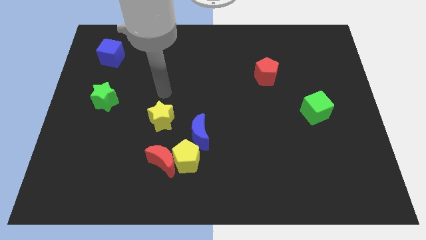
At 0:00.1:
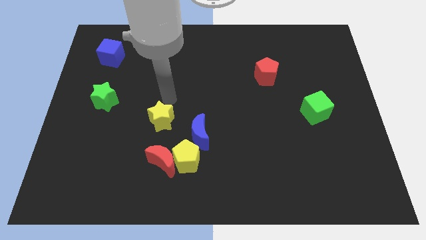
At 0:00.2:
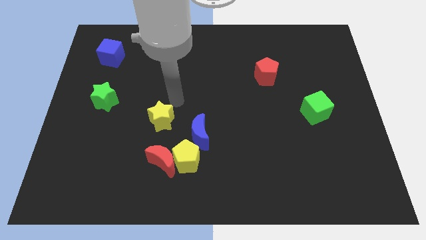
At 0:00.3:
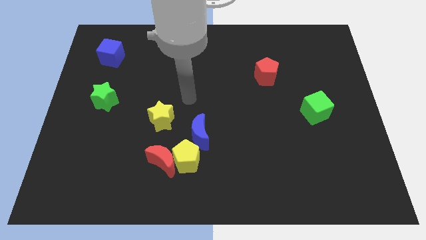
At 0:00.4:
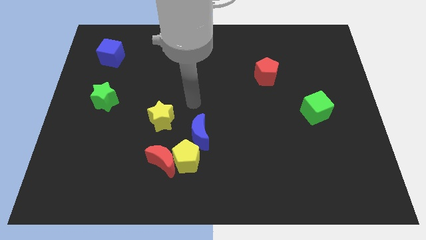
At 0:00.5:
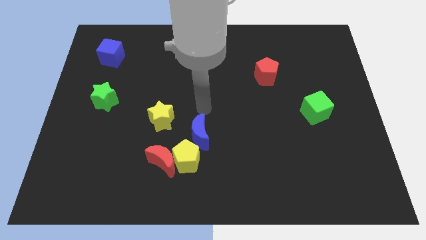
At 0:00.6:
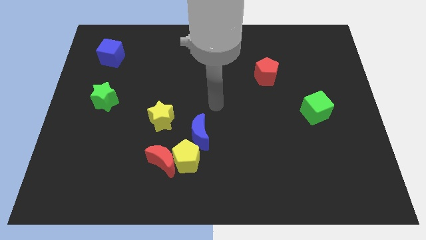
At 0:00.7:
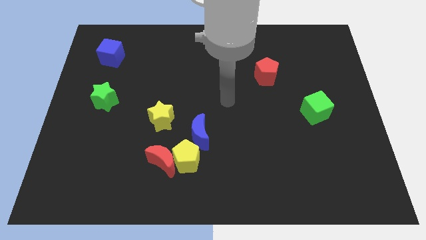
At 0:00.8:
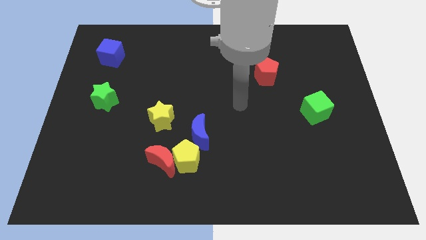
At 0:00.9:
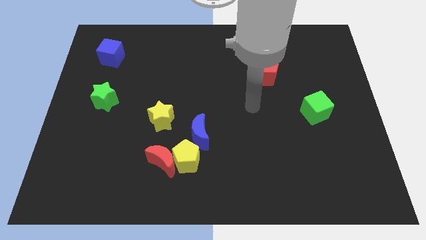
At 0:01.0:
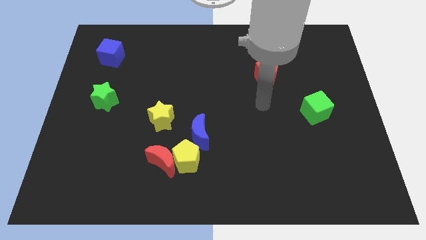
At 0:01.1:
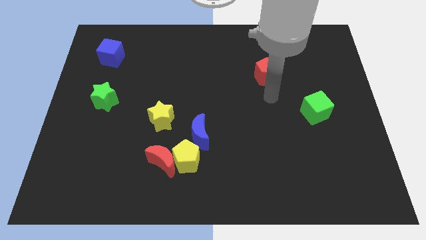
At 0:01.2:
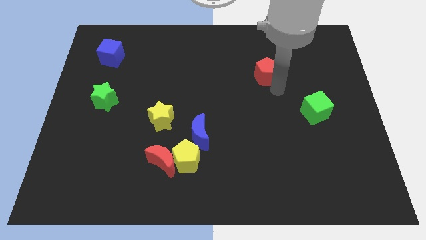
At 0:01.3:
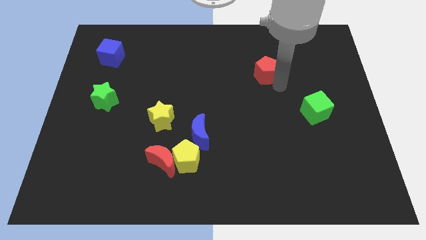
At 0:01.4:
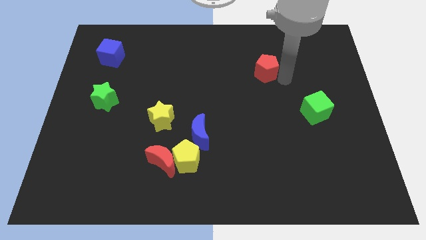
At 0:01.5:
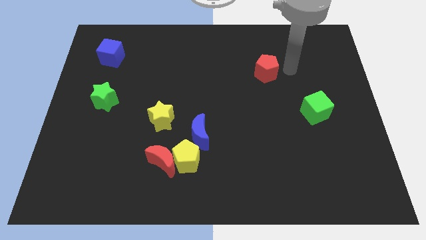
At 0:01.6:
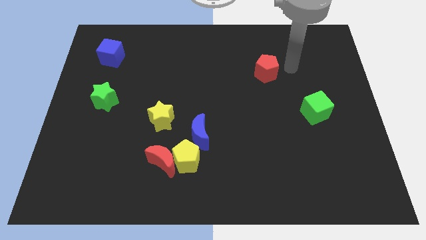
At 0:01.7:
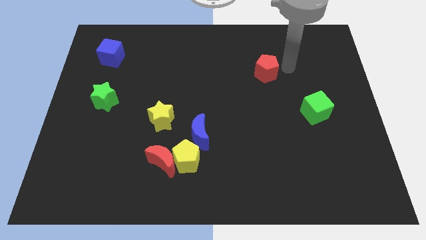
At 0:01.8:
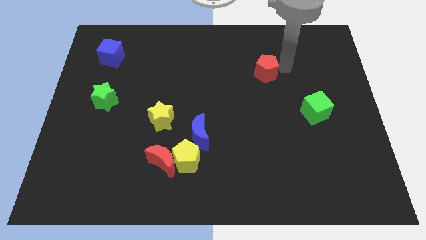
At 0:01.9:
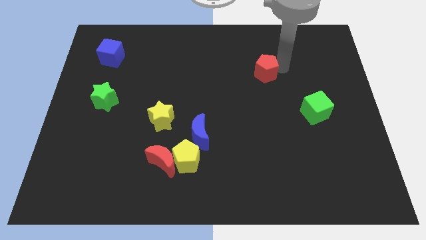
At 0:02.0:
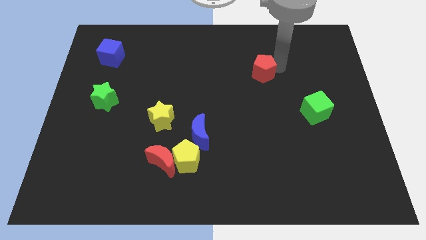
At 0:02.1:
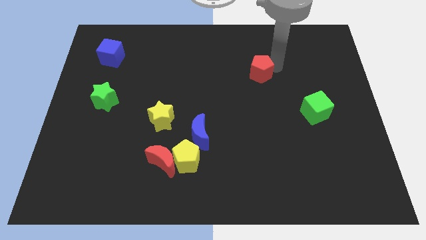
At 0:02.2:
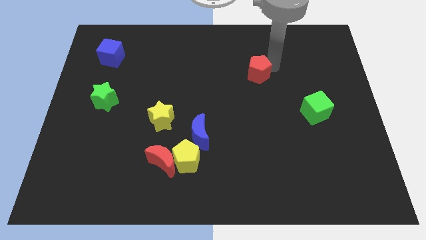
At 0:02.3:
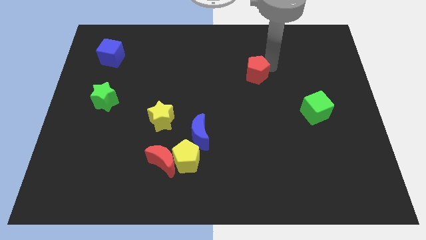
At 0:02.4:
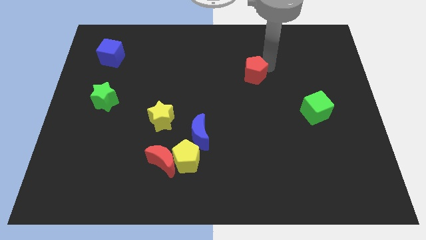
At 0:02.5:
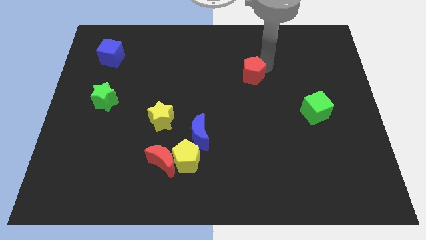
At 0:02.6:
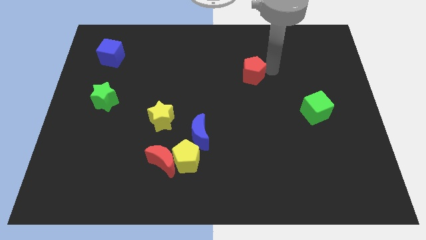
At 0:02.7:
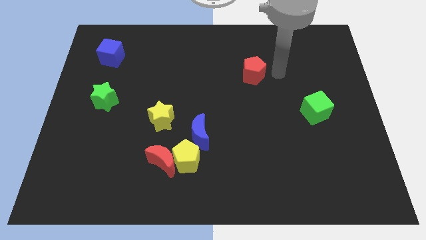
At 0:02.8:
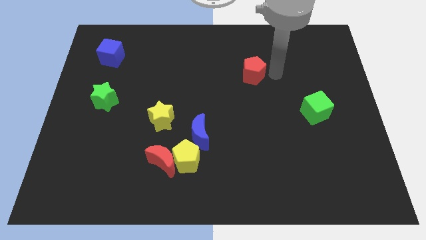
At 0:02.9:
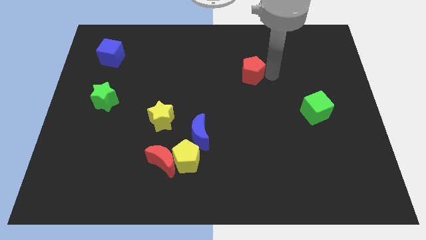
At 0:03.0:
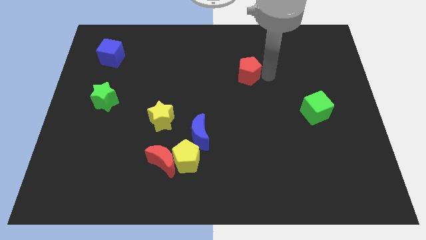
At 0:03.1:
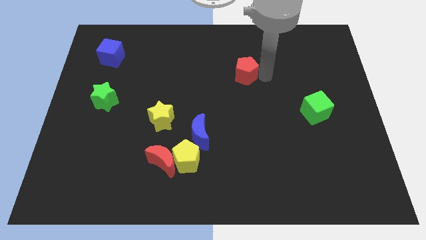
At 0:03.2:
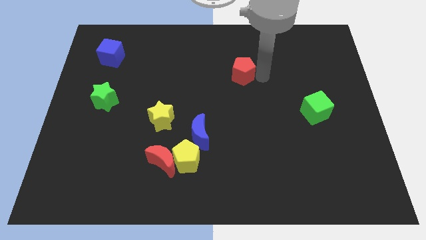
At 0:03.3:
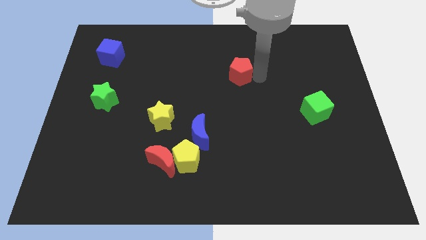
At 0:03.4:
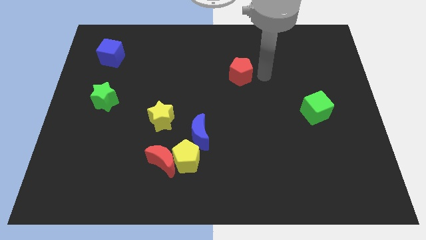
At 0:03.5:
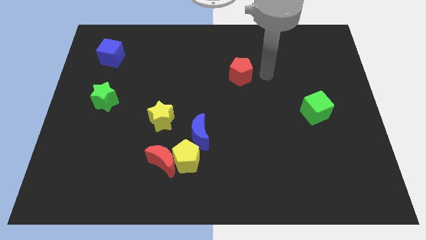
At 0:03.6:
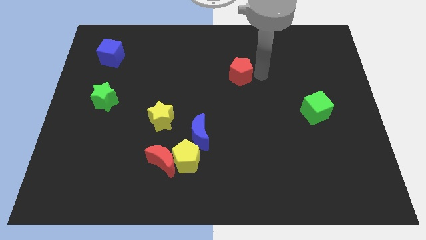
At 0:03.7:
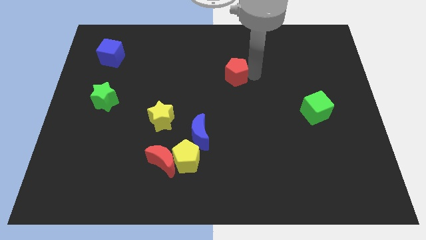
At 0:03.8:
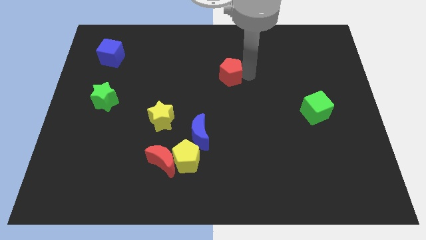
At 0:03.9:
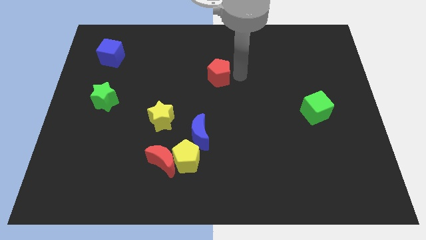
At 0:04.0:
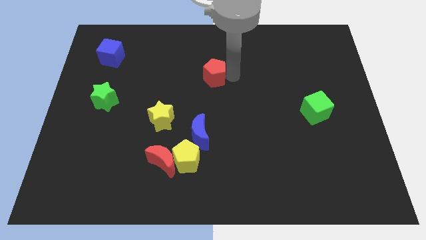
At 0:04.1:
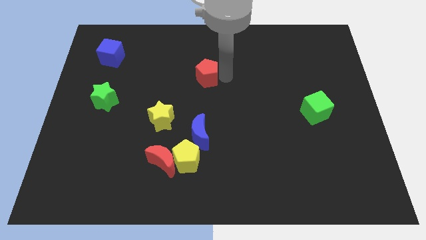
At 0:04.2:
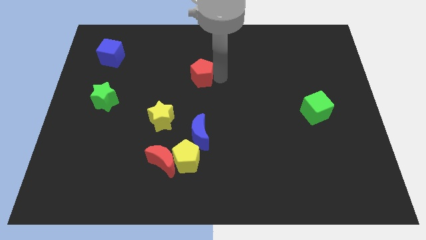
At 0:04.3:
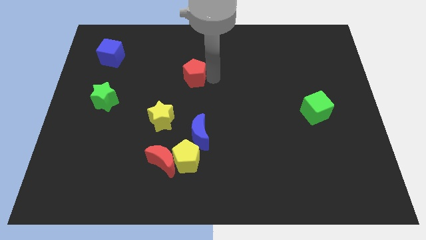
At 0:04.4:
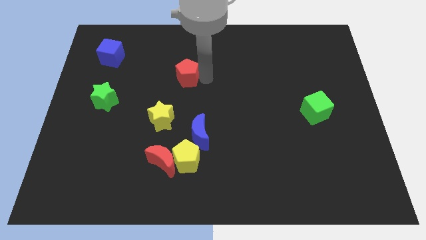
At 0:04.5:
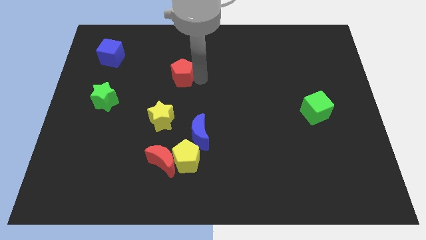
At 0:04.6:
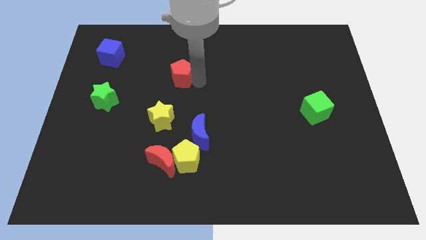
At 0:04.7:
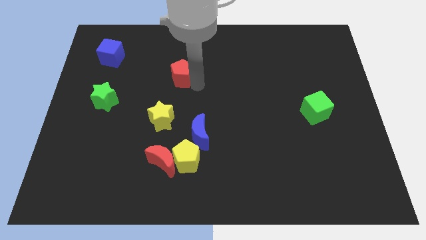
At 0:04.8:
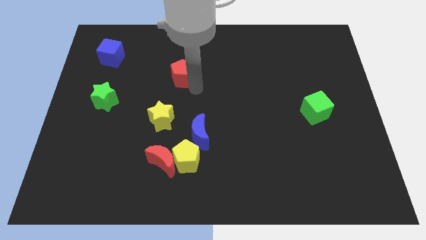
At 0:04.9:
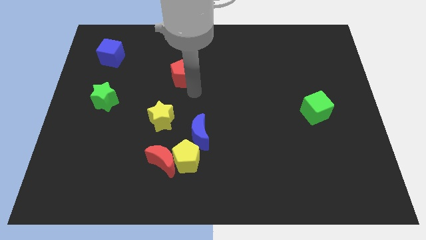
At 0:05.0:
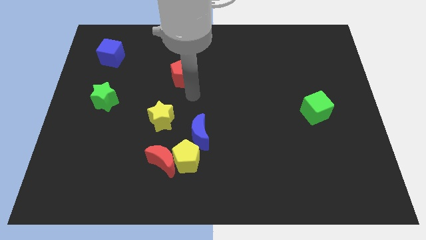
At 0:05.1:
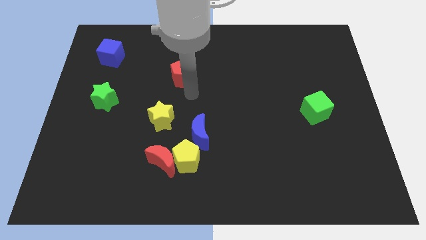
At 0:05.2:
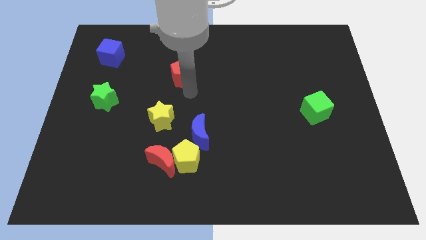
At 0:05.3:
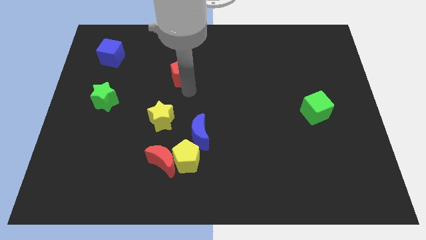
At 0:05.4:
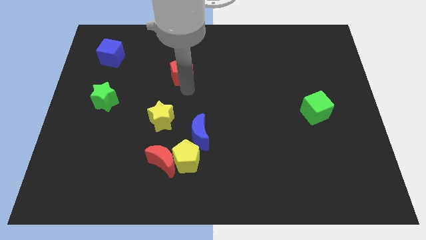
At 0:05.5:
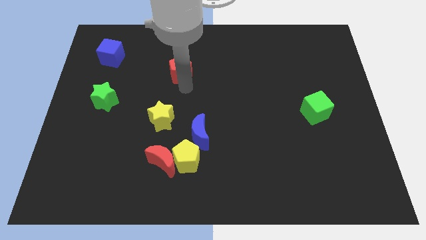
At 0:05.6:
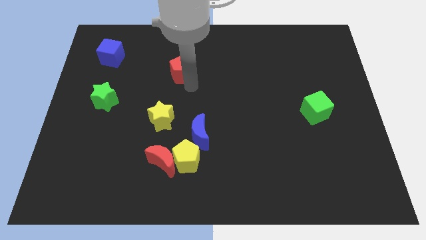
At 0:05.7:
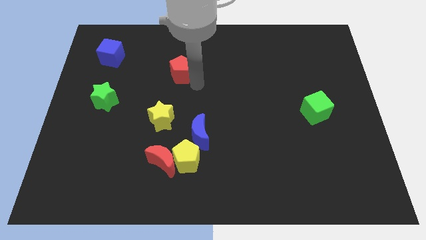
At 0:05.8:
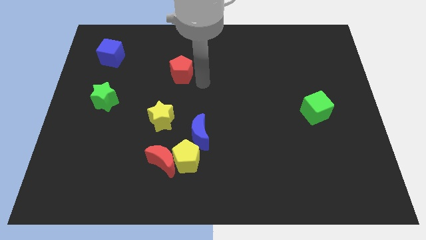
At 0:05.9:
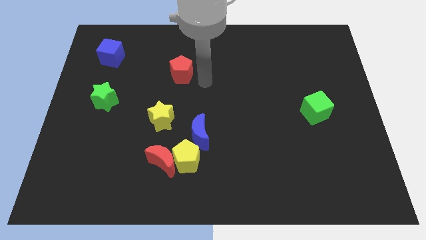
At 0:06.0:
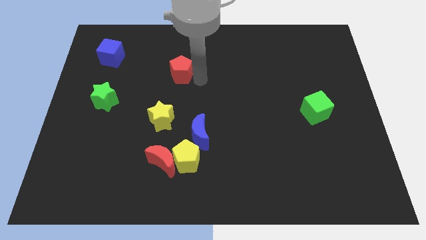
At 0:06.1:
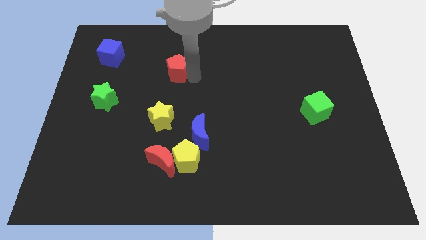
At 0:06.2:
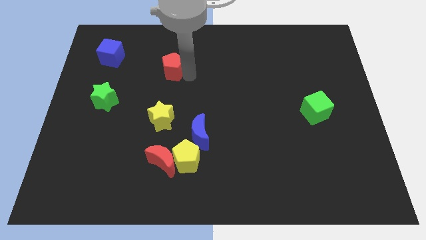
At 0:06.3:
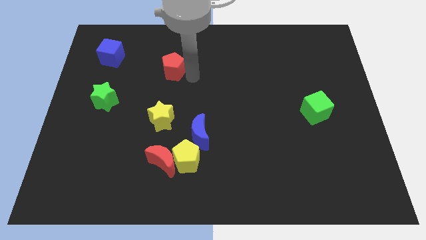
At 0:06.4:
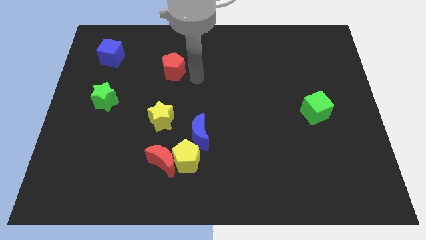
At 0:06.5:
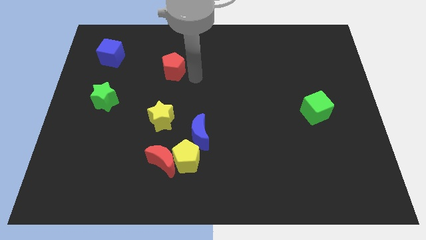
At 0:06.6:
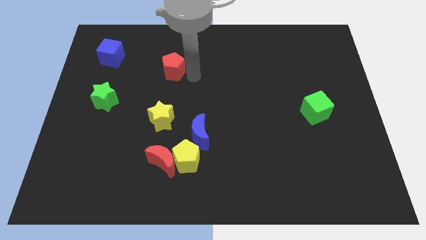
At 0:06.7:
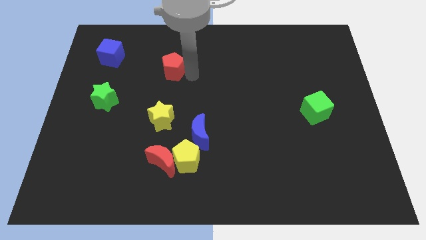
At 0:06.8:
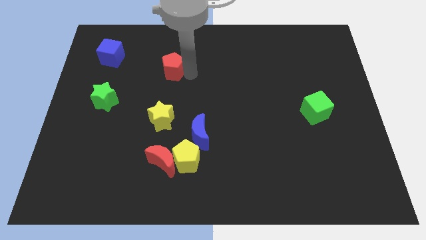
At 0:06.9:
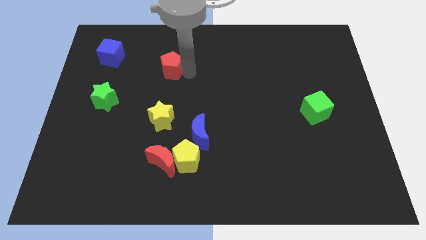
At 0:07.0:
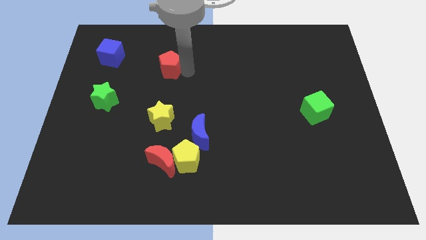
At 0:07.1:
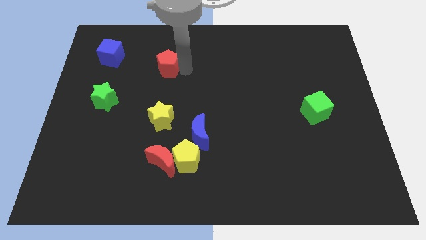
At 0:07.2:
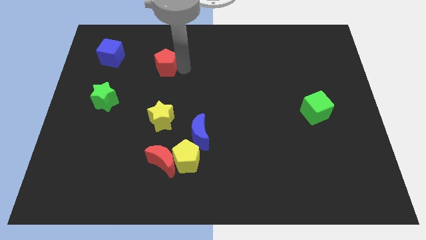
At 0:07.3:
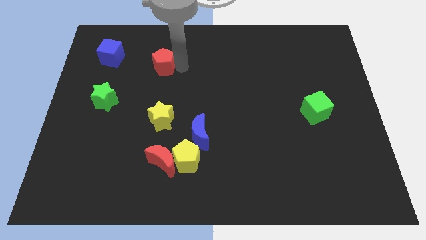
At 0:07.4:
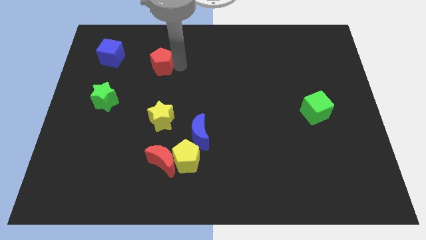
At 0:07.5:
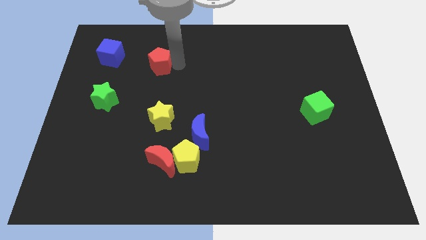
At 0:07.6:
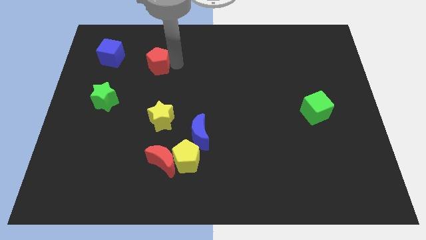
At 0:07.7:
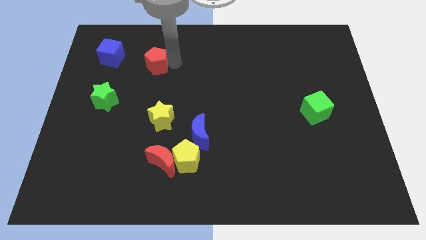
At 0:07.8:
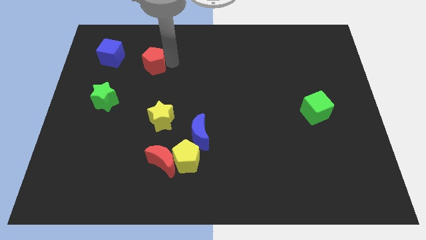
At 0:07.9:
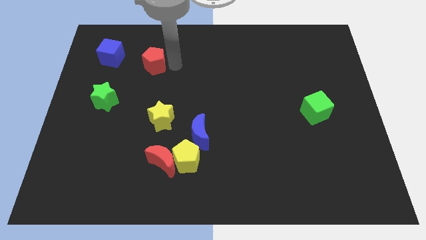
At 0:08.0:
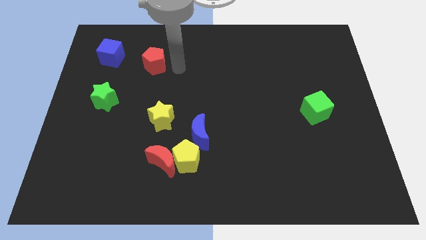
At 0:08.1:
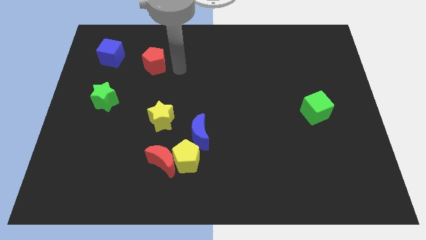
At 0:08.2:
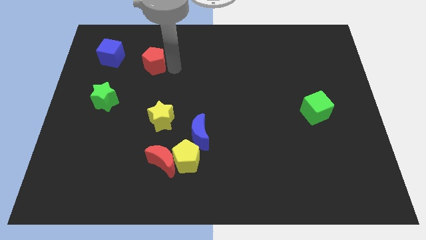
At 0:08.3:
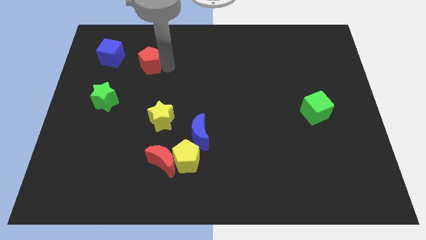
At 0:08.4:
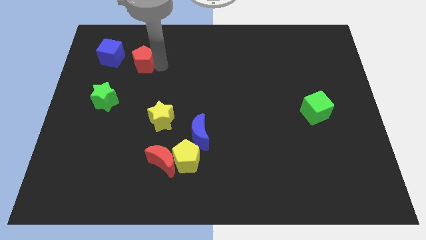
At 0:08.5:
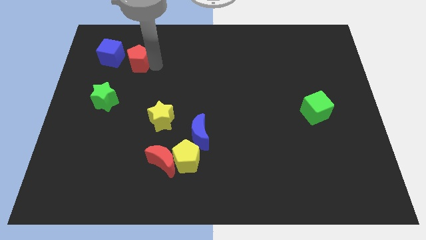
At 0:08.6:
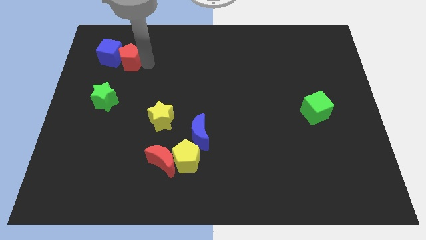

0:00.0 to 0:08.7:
push the red pentagon to the blue cube
